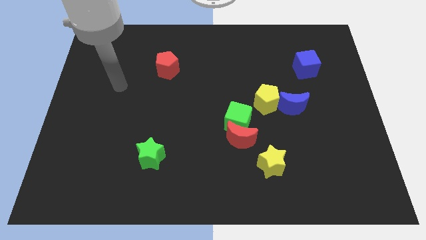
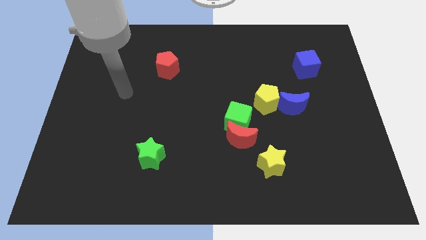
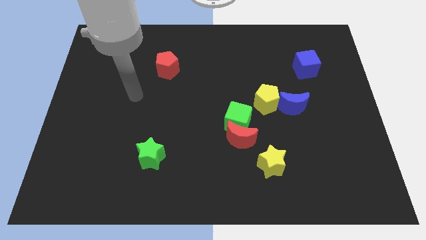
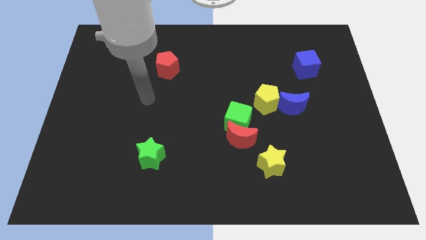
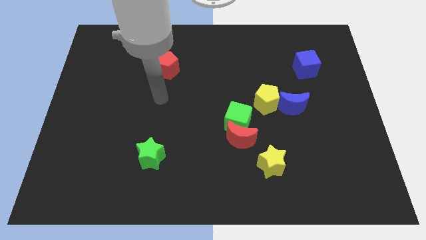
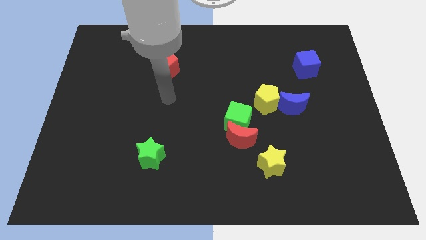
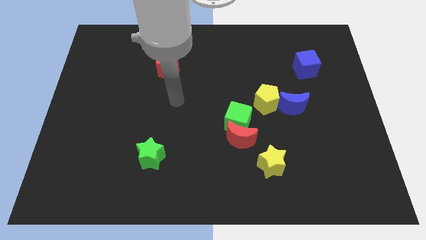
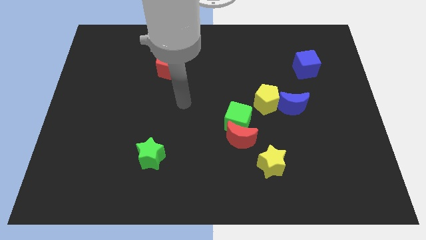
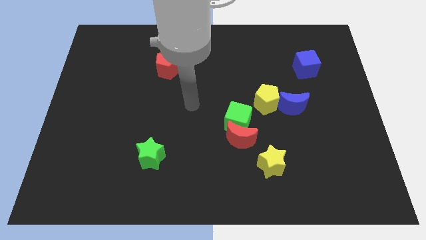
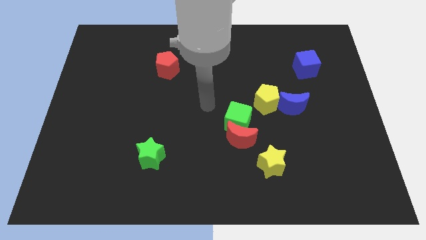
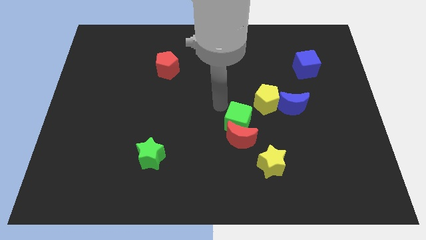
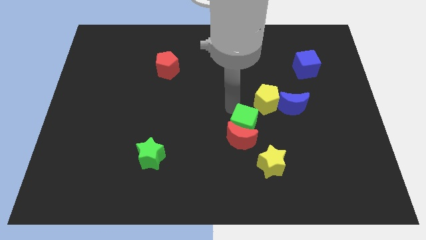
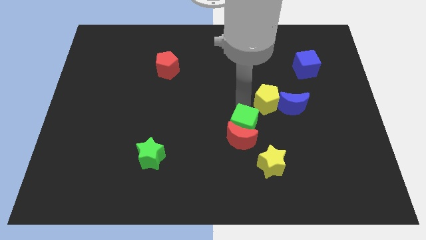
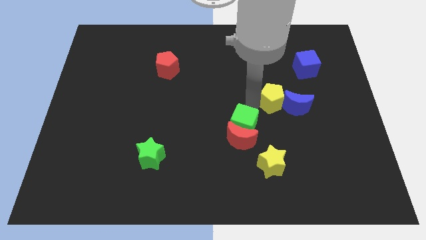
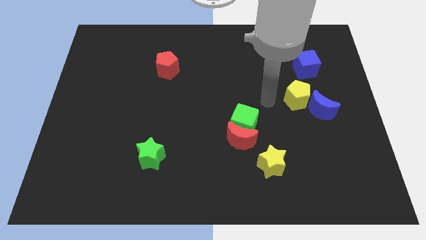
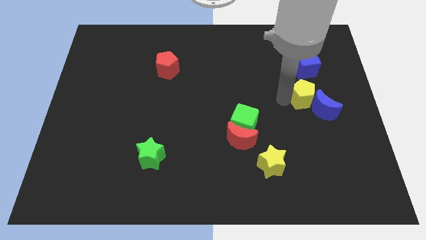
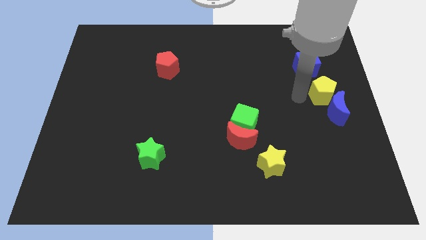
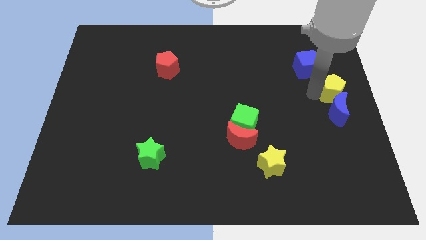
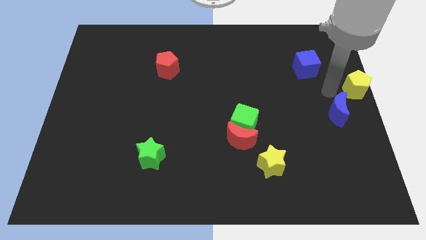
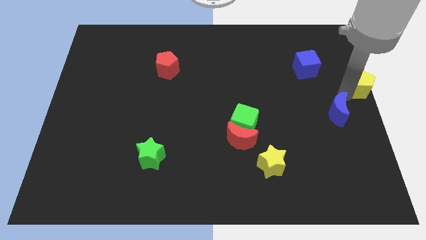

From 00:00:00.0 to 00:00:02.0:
move the blue moon away from the yellow pentagon

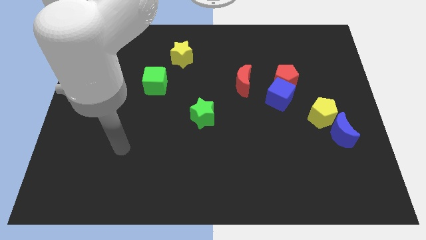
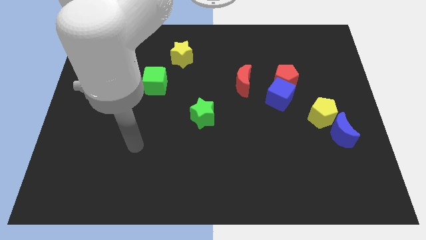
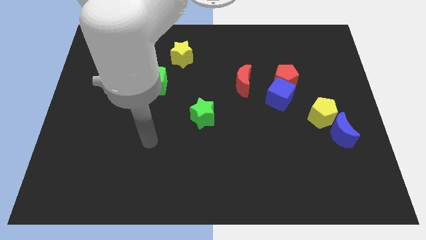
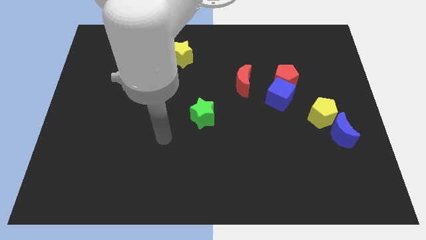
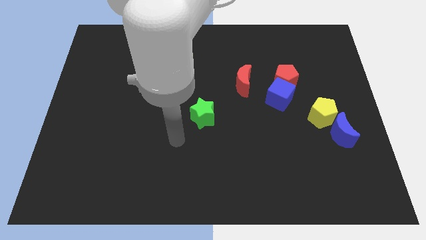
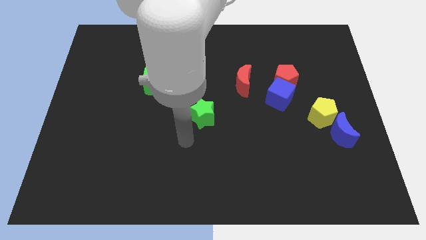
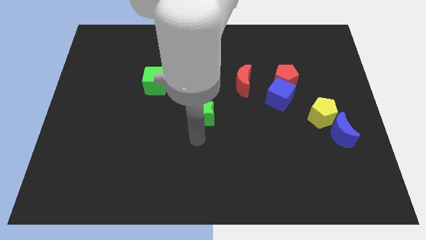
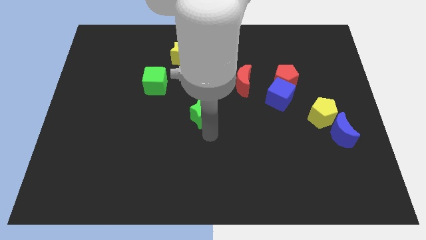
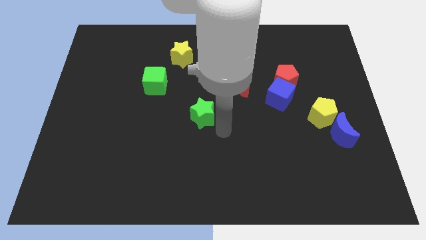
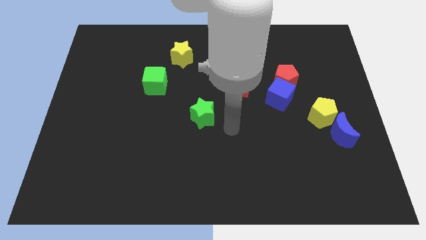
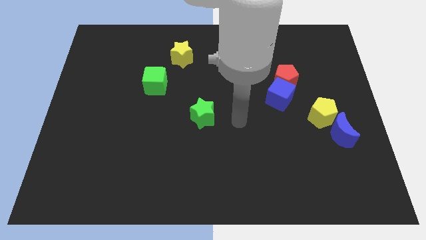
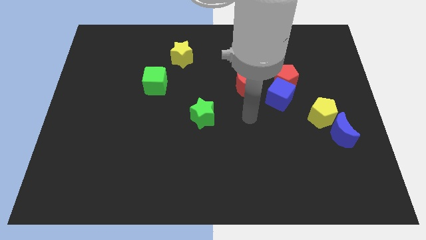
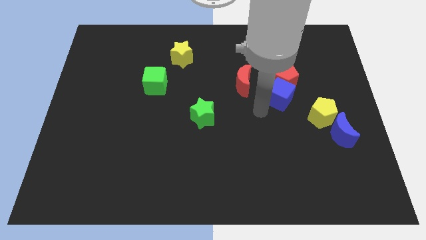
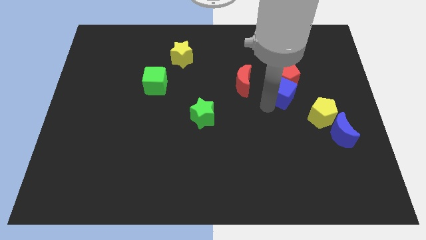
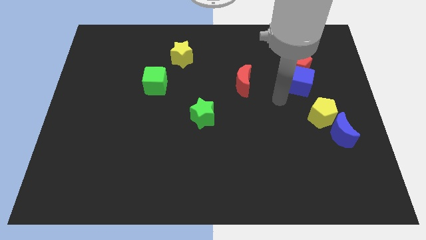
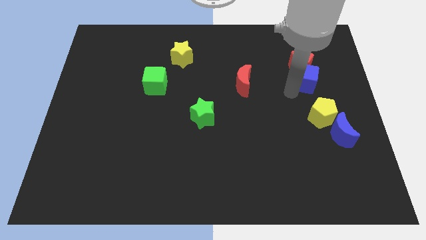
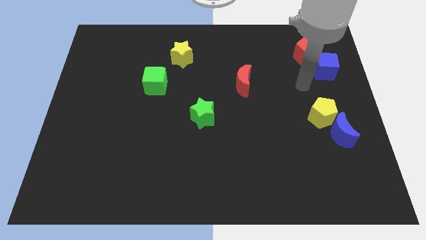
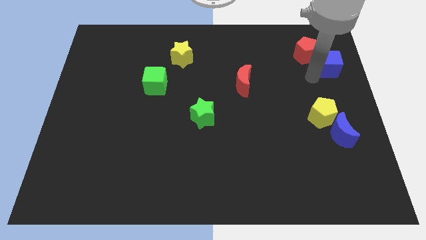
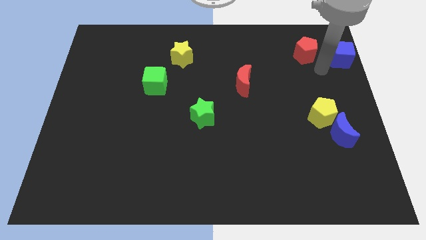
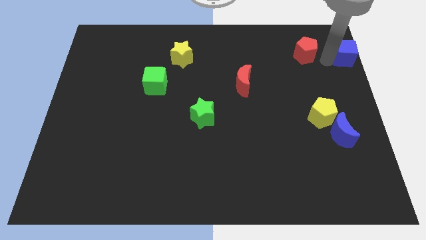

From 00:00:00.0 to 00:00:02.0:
move the red pentagon away from the blue cube

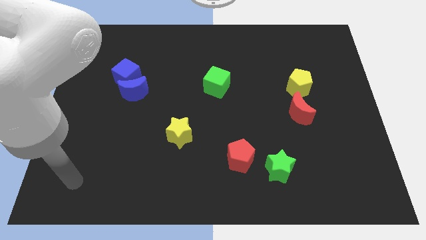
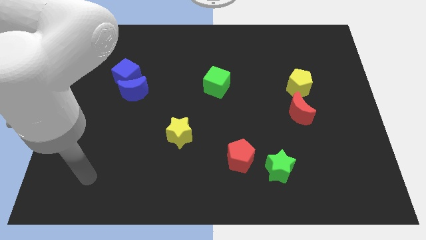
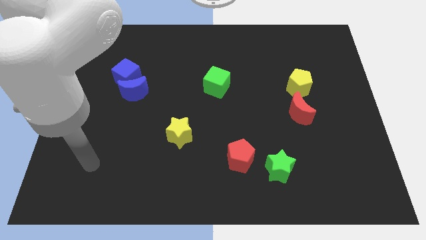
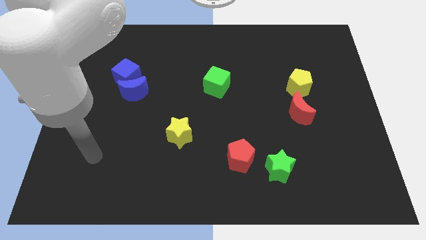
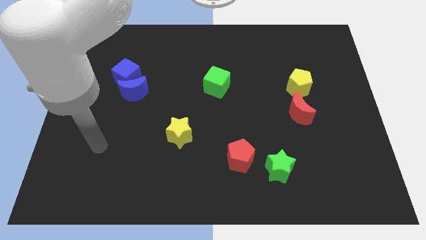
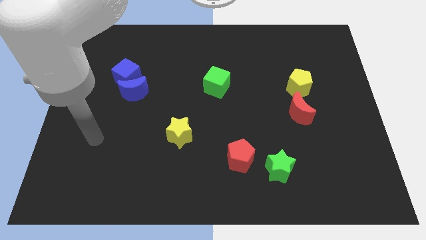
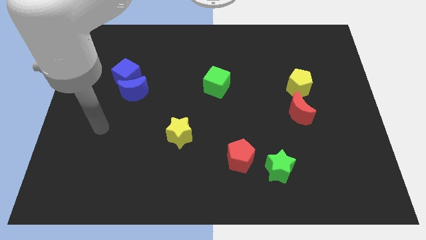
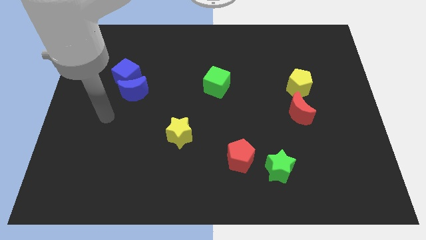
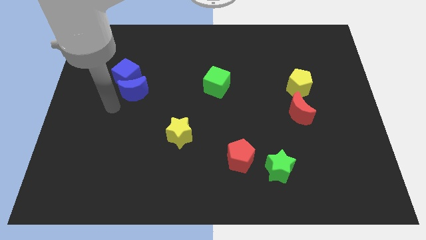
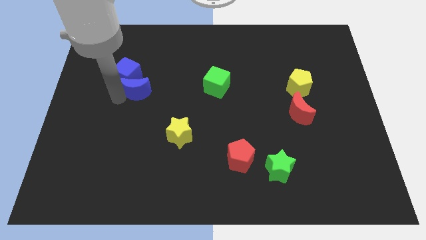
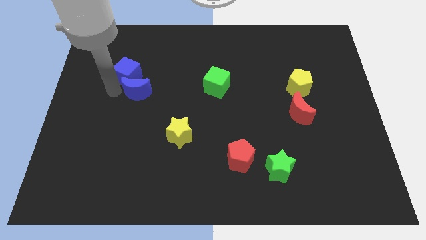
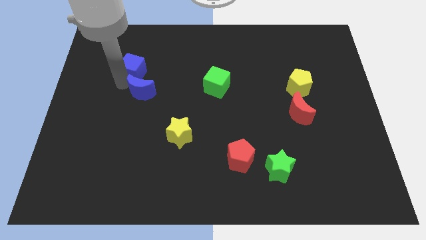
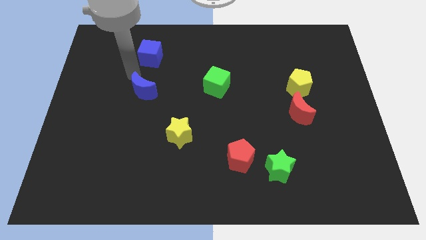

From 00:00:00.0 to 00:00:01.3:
separate the blue moon from the blue cube

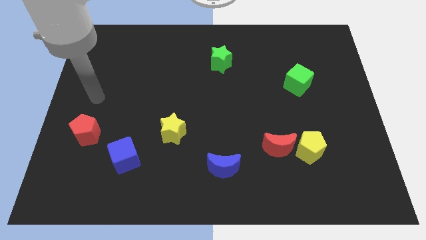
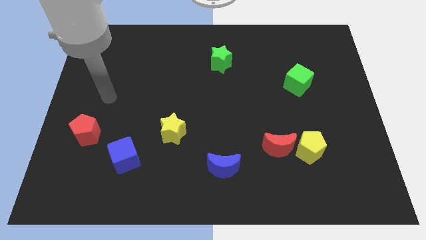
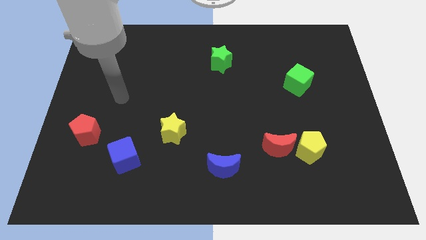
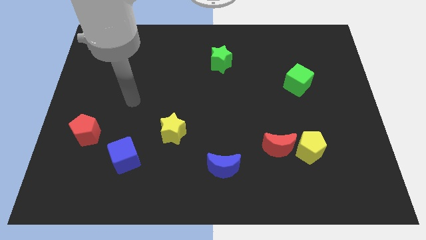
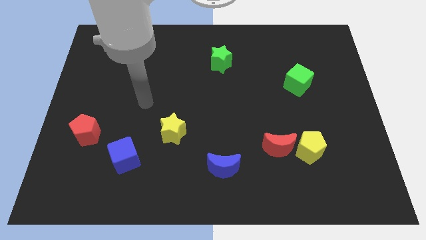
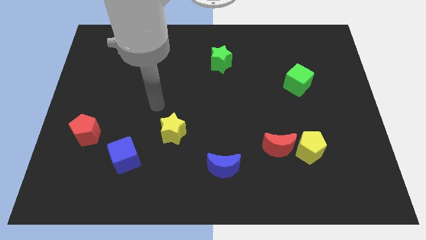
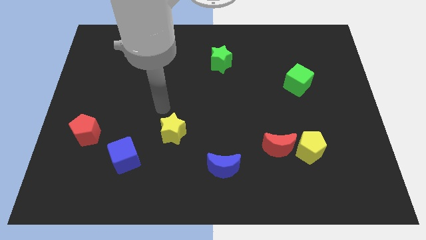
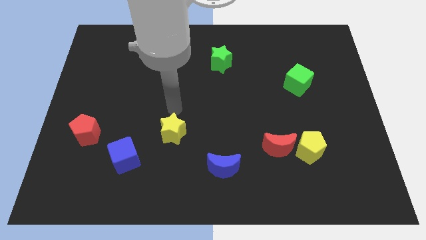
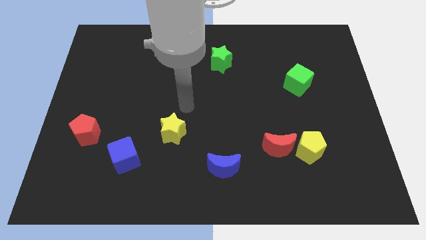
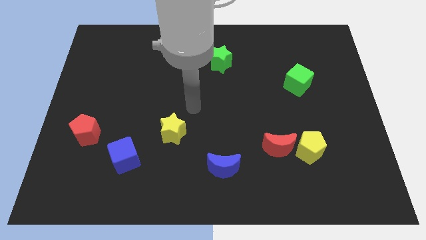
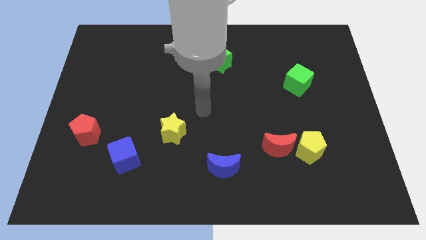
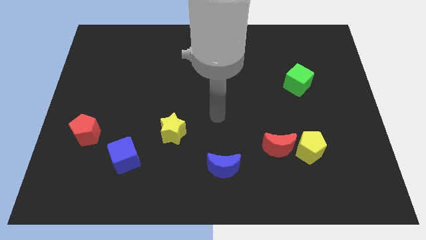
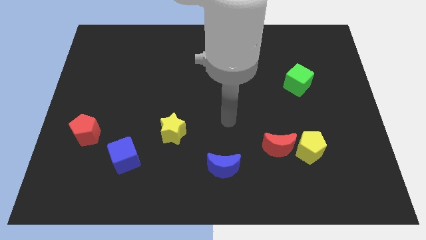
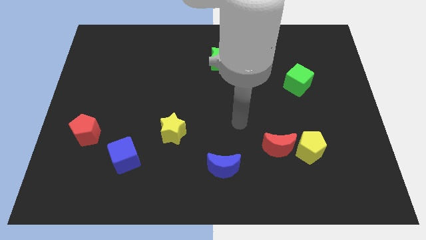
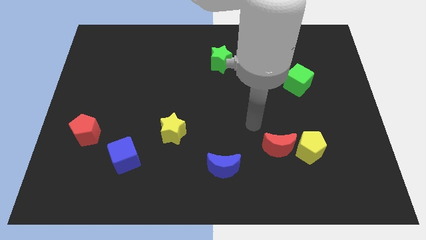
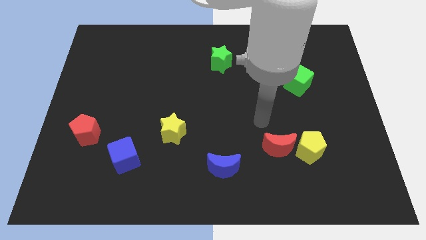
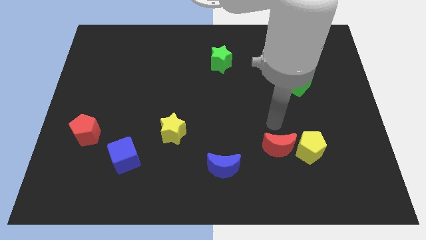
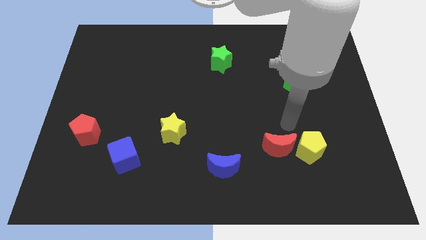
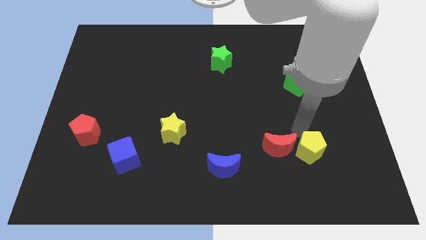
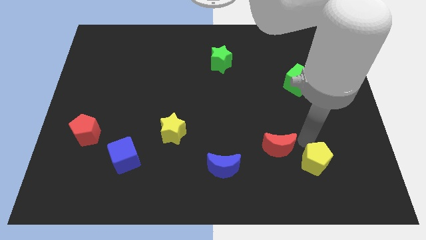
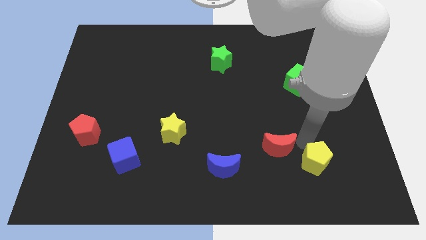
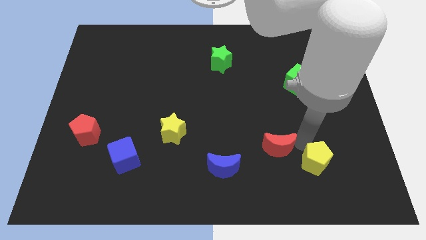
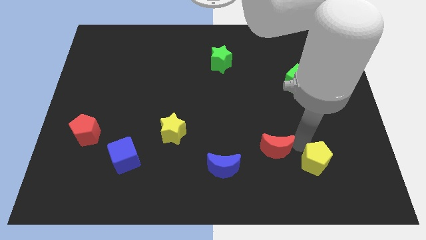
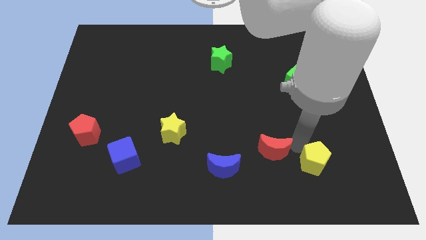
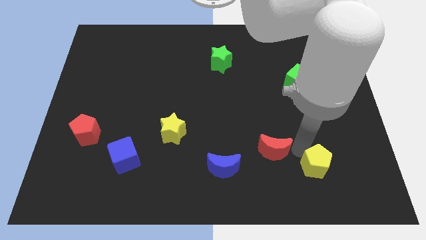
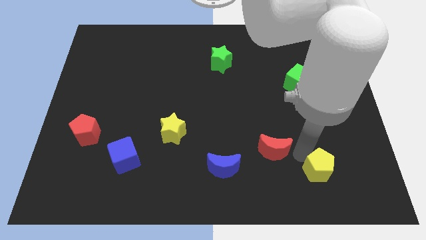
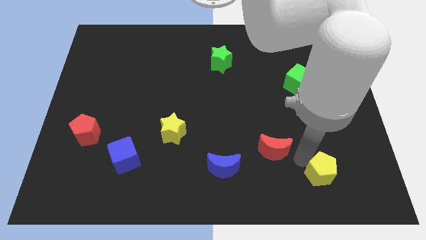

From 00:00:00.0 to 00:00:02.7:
move the red moon away from the yellow pentagon

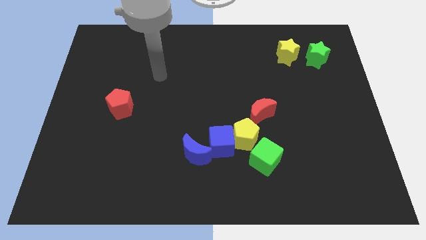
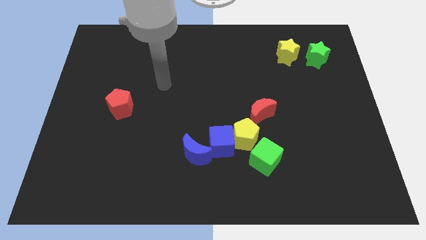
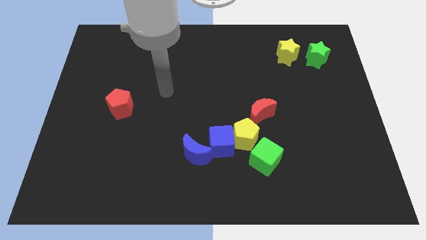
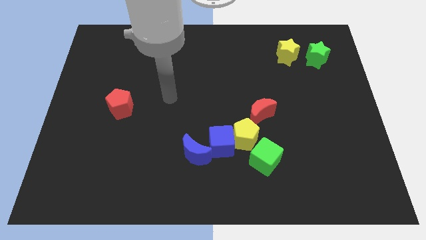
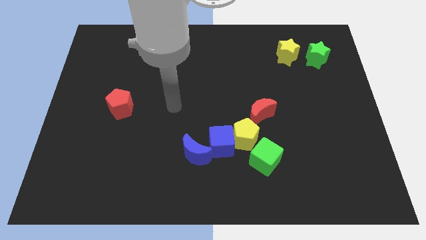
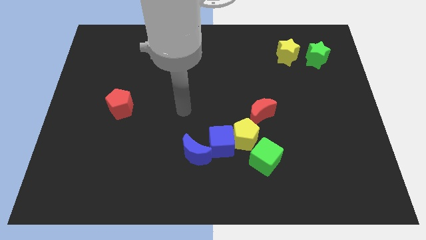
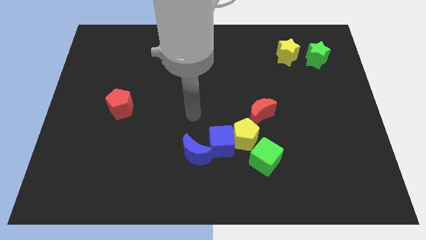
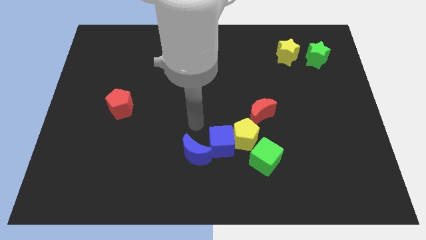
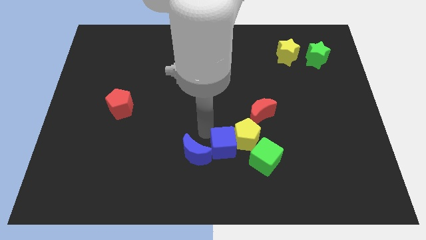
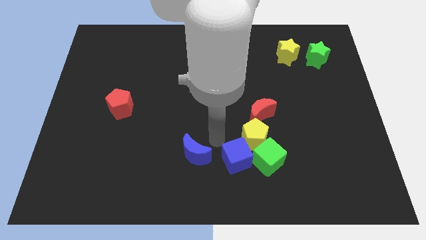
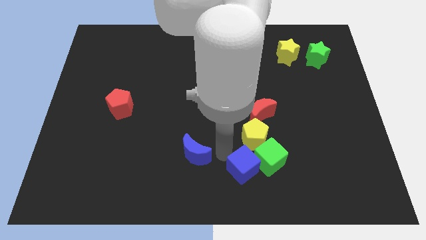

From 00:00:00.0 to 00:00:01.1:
pull the blue moon apart from the blue cube

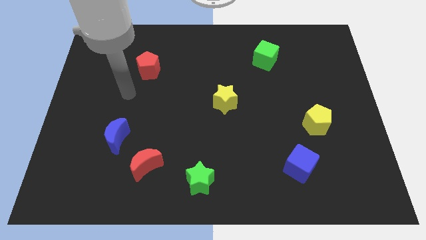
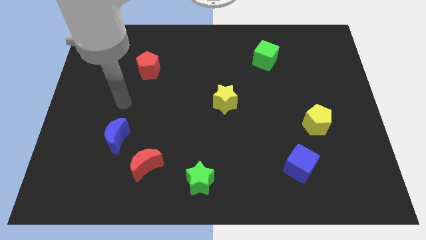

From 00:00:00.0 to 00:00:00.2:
move the red moon away from the blue moon
